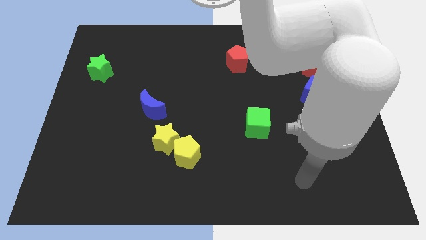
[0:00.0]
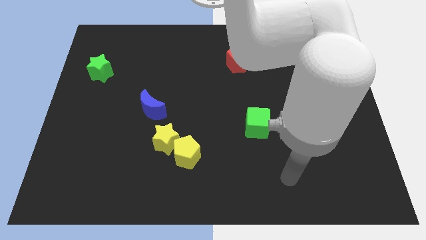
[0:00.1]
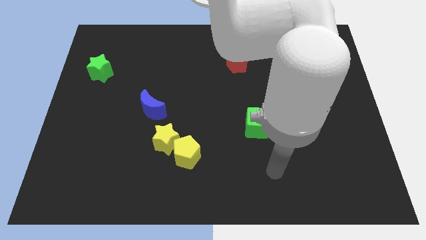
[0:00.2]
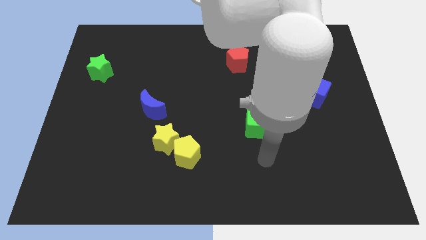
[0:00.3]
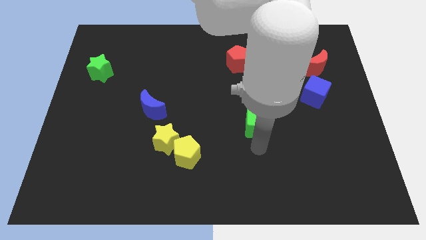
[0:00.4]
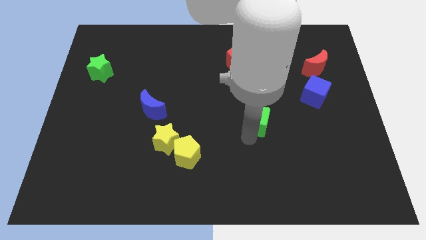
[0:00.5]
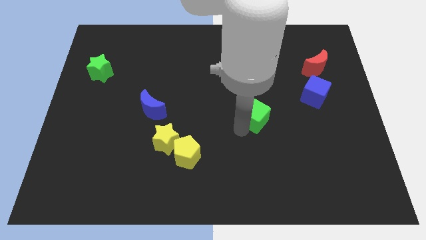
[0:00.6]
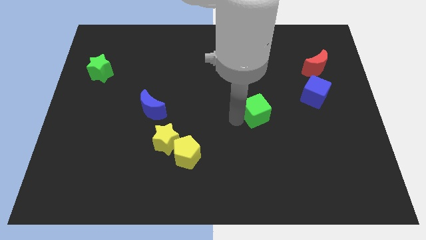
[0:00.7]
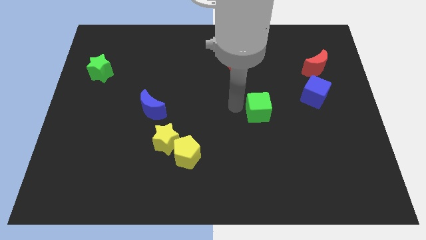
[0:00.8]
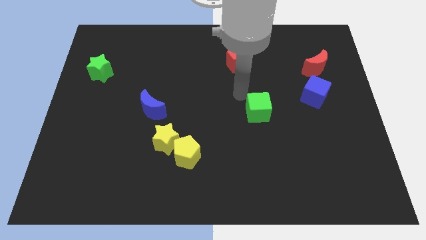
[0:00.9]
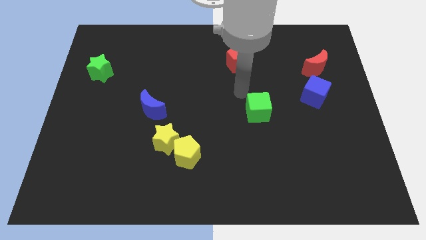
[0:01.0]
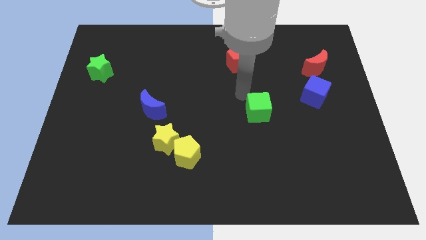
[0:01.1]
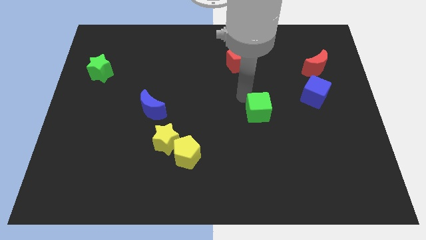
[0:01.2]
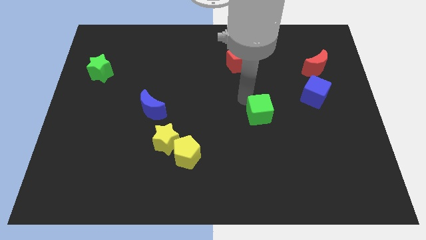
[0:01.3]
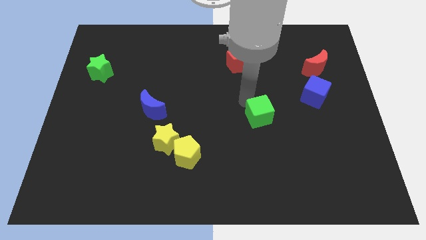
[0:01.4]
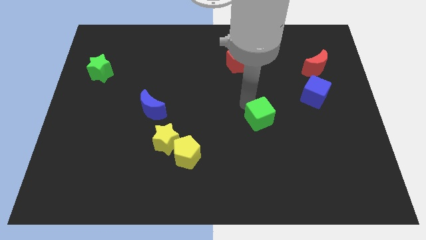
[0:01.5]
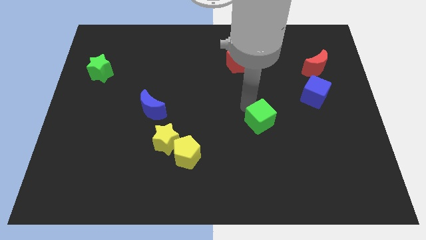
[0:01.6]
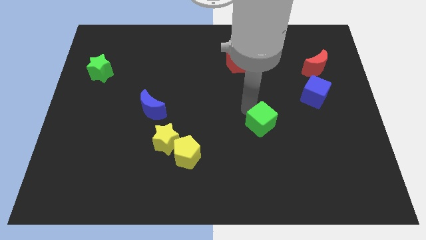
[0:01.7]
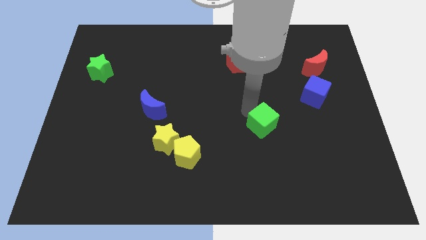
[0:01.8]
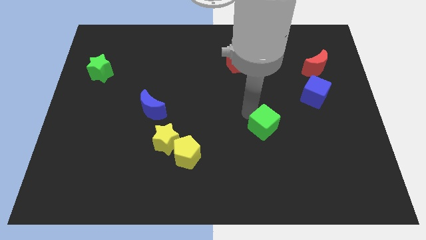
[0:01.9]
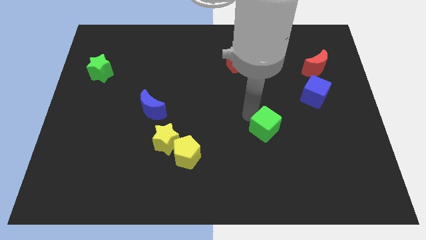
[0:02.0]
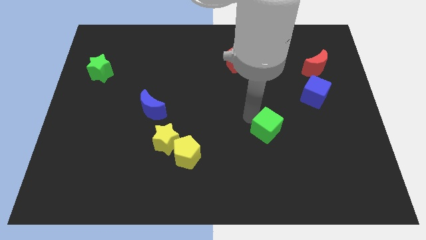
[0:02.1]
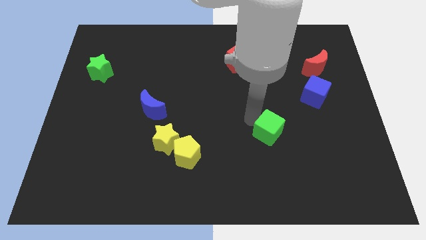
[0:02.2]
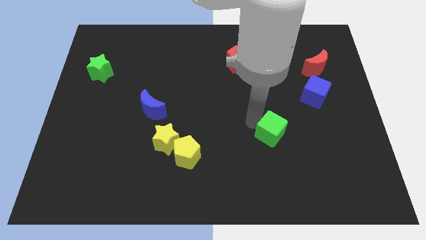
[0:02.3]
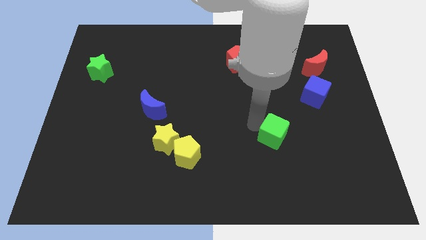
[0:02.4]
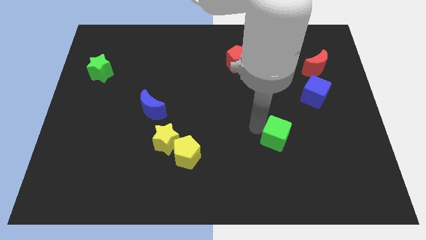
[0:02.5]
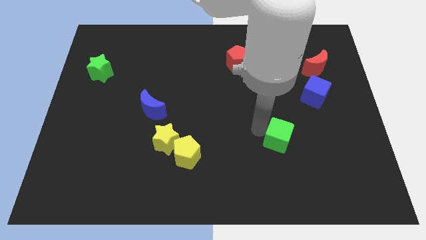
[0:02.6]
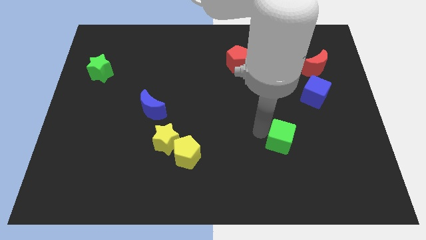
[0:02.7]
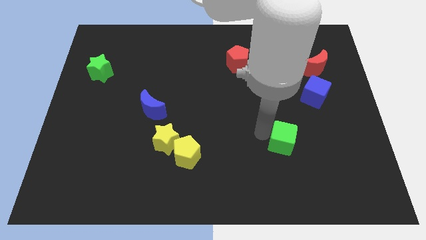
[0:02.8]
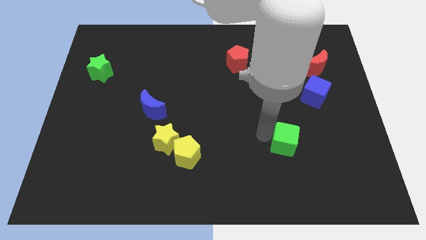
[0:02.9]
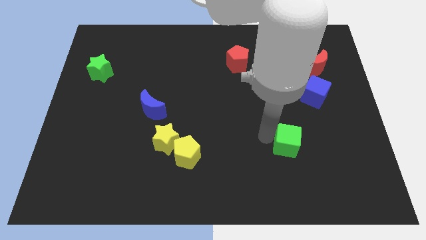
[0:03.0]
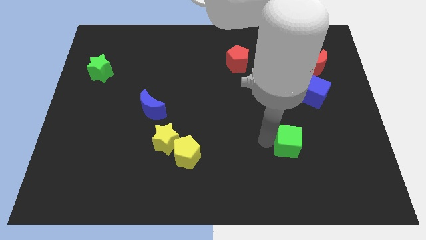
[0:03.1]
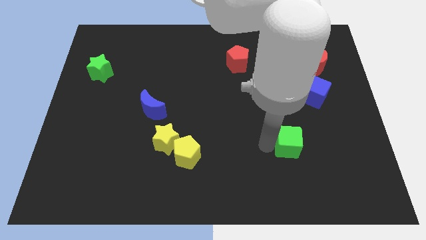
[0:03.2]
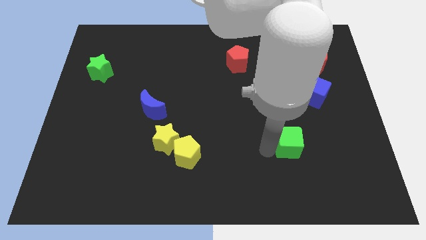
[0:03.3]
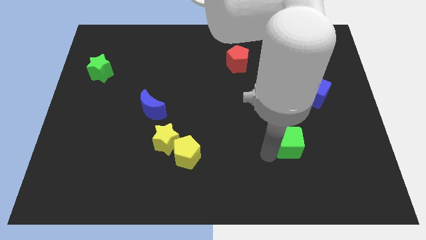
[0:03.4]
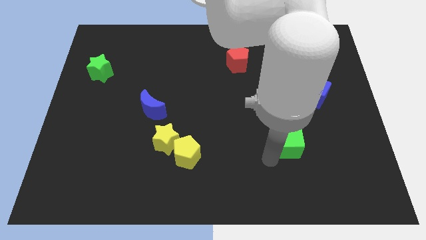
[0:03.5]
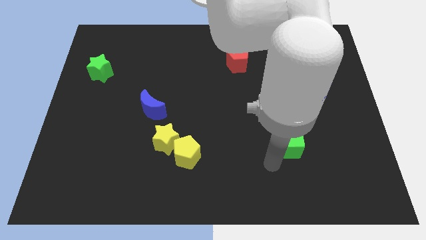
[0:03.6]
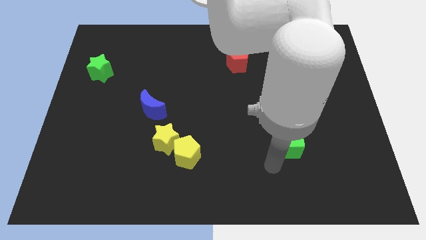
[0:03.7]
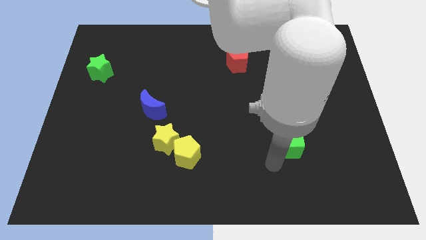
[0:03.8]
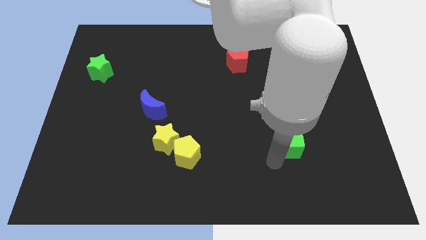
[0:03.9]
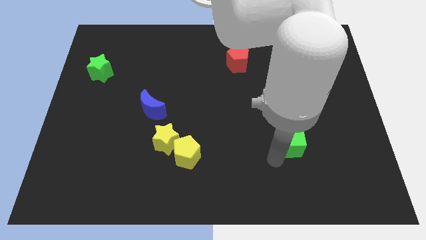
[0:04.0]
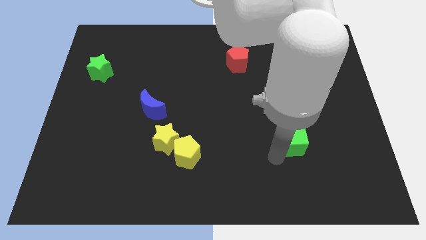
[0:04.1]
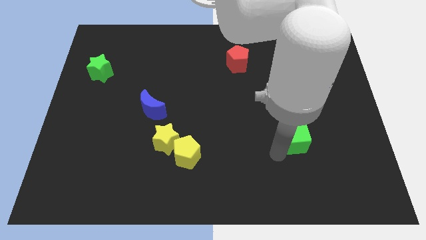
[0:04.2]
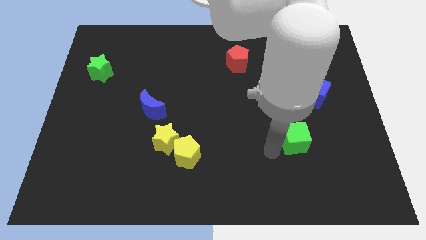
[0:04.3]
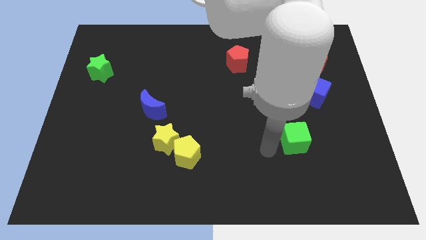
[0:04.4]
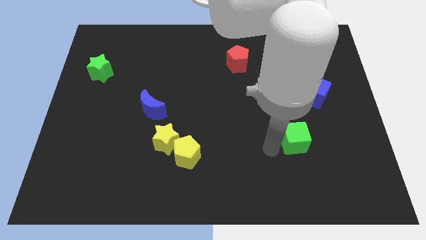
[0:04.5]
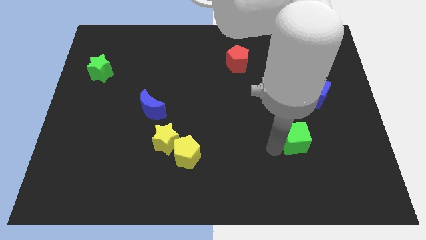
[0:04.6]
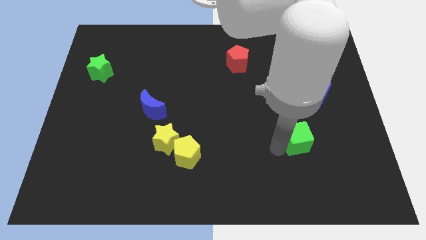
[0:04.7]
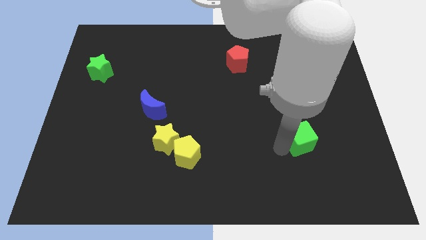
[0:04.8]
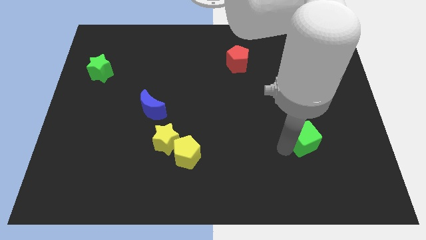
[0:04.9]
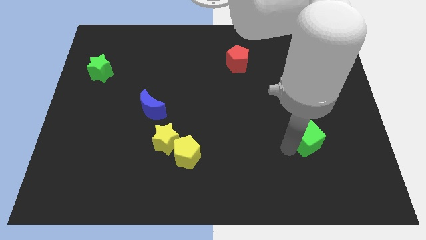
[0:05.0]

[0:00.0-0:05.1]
slide the green cube to the bottom side of the blue cube

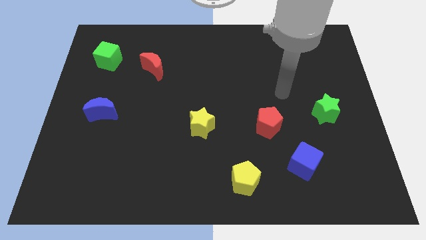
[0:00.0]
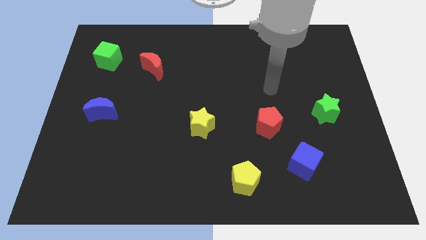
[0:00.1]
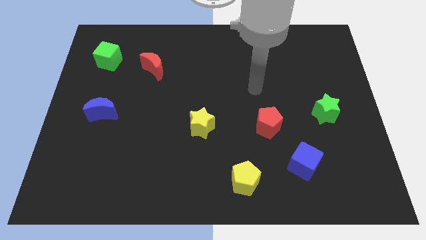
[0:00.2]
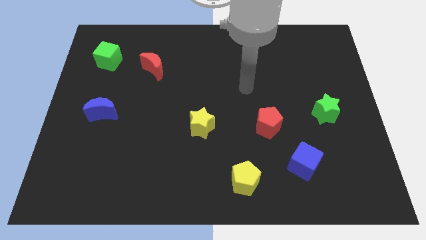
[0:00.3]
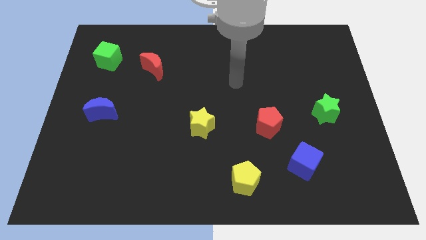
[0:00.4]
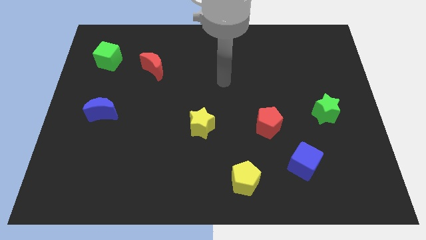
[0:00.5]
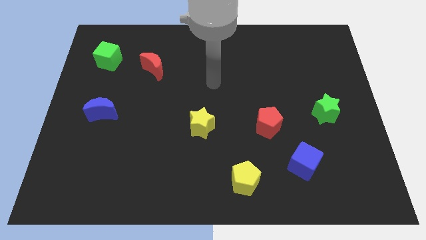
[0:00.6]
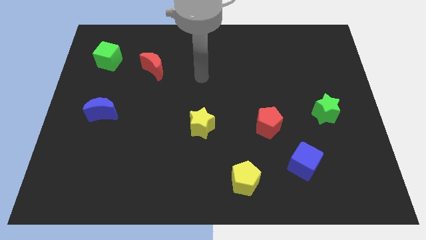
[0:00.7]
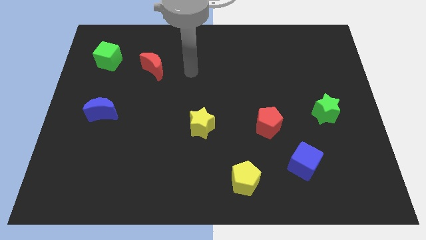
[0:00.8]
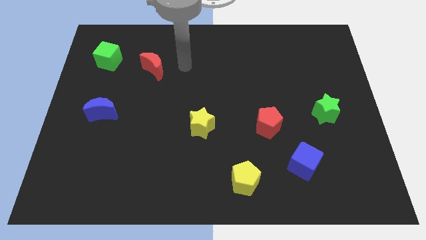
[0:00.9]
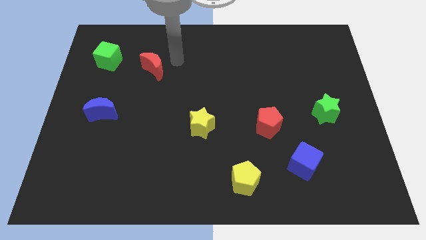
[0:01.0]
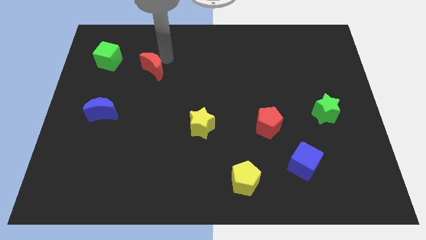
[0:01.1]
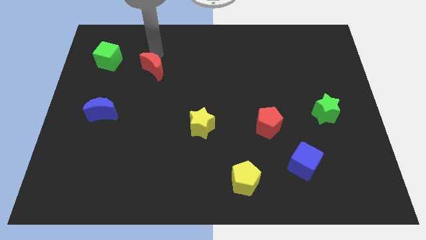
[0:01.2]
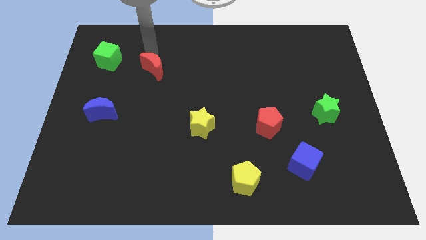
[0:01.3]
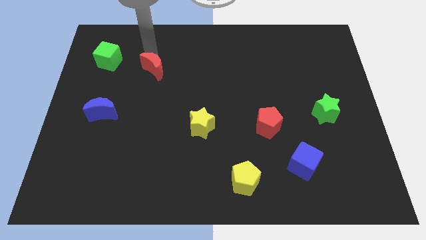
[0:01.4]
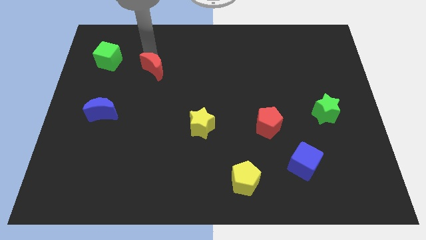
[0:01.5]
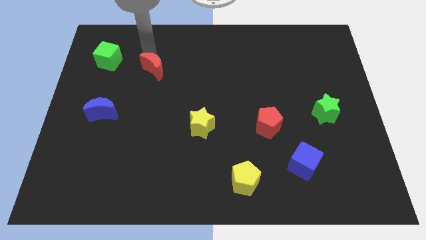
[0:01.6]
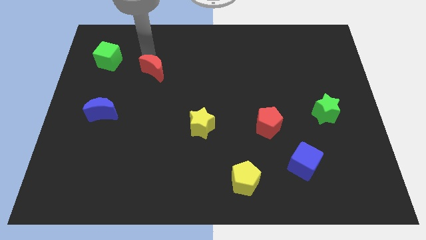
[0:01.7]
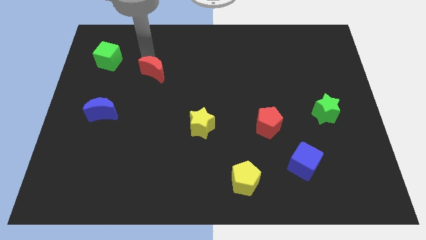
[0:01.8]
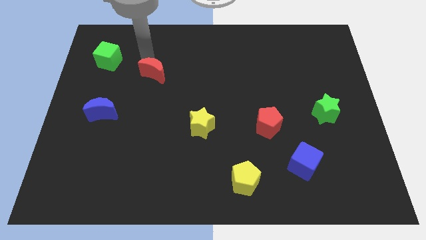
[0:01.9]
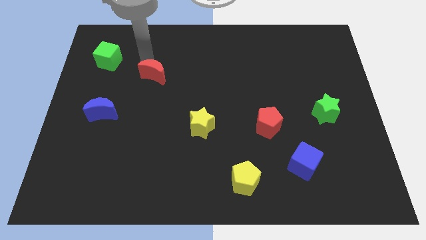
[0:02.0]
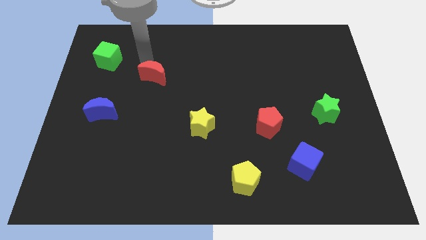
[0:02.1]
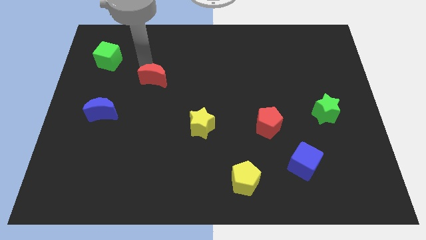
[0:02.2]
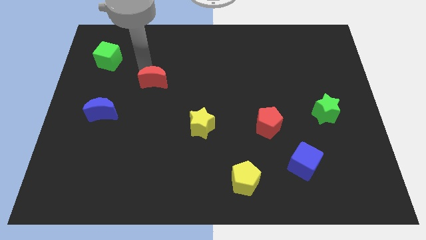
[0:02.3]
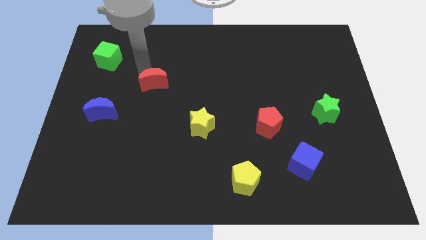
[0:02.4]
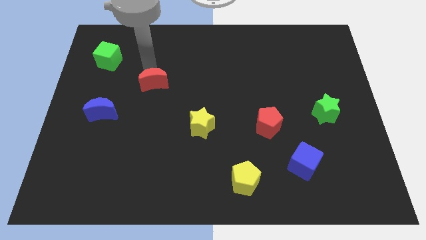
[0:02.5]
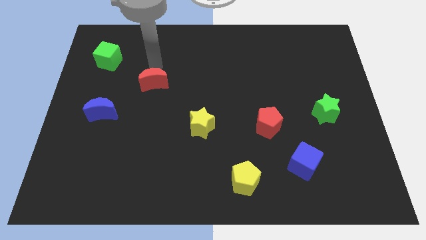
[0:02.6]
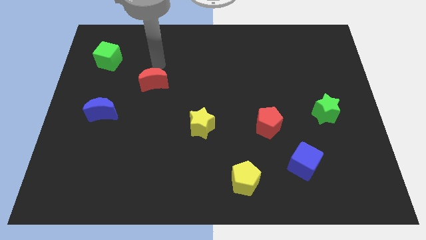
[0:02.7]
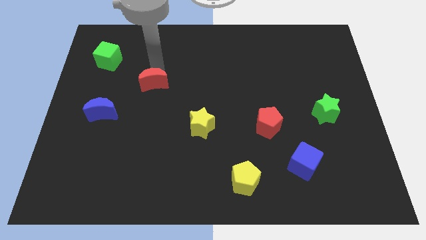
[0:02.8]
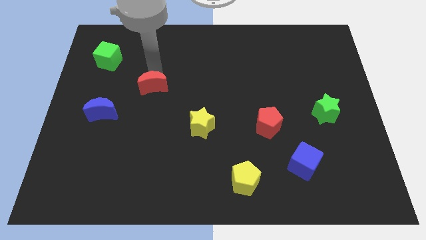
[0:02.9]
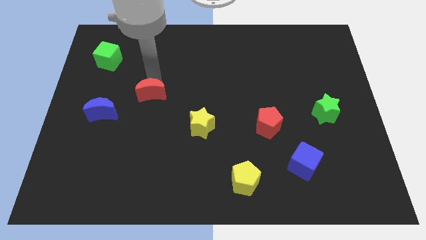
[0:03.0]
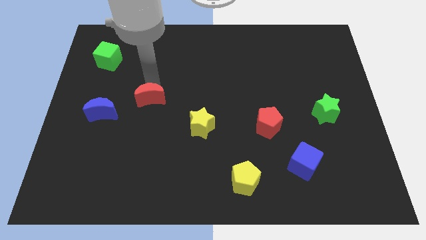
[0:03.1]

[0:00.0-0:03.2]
move the red moon to the right side of the blue moon
